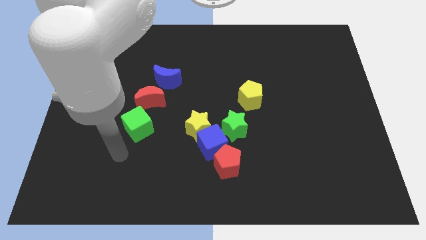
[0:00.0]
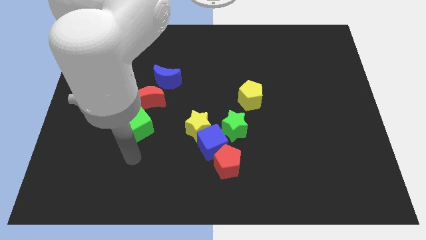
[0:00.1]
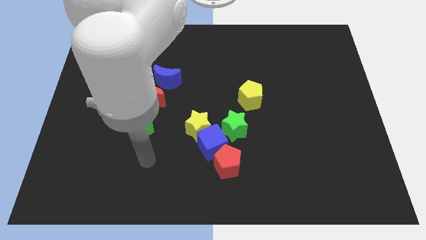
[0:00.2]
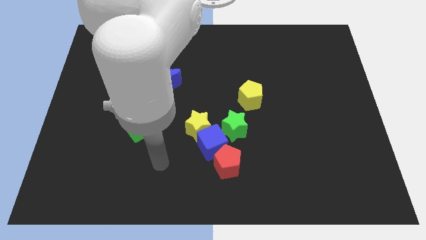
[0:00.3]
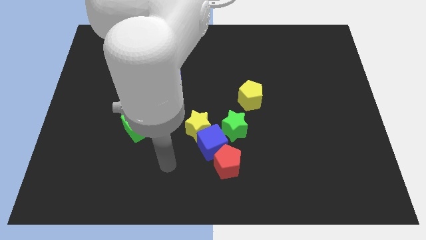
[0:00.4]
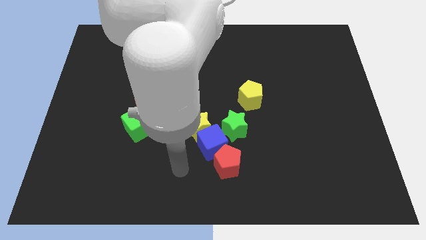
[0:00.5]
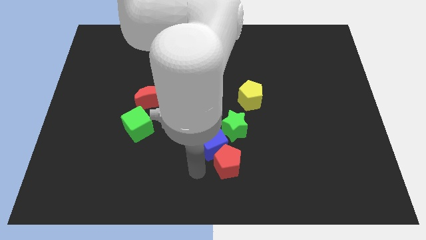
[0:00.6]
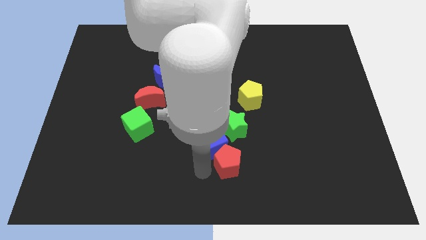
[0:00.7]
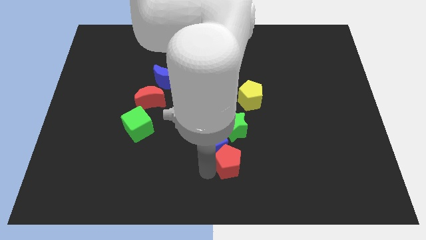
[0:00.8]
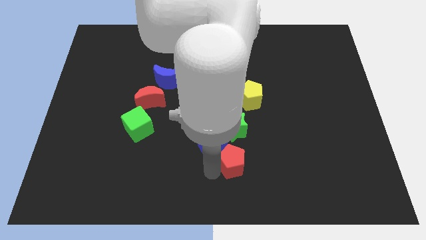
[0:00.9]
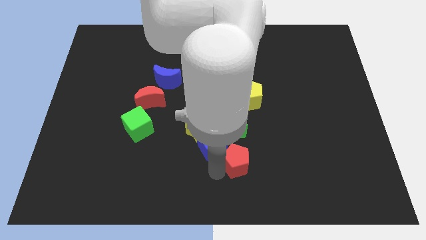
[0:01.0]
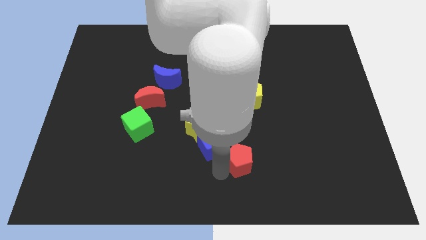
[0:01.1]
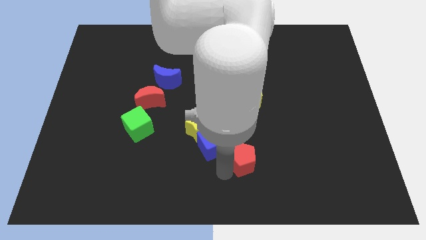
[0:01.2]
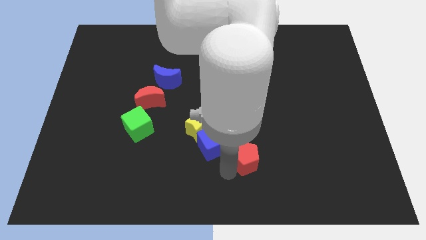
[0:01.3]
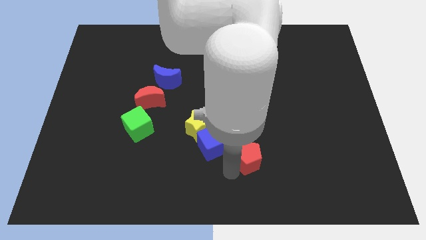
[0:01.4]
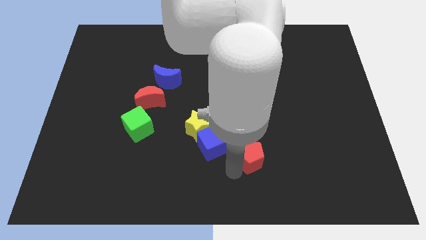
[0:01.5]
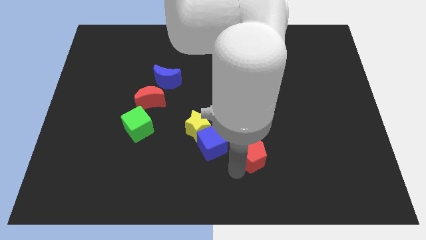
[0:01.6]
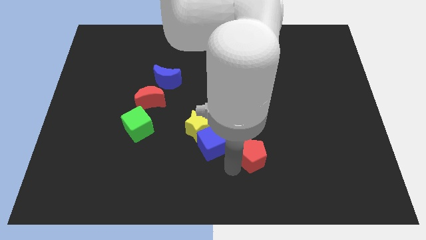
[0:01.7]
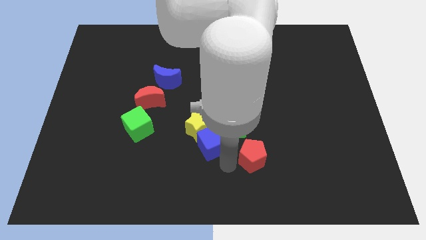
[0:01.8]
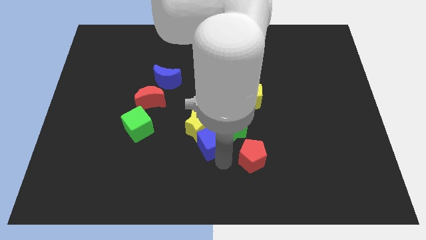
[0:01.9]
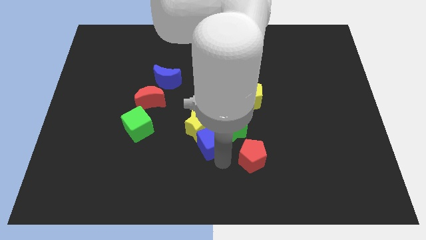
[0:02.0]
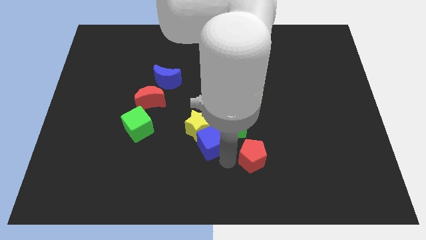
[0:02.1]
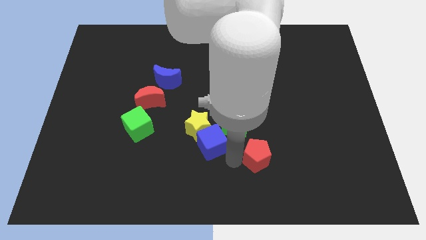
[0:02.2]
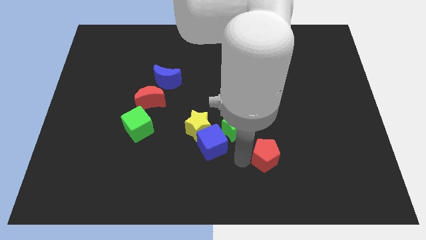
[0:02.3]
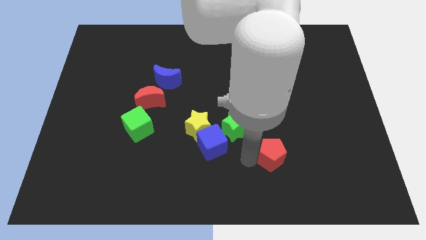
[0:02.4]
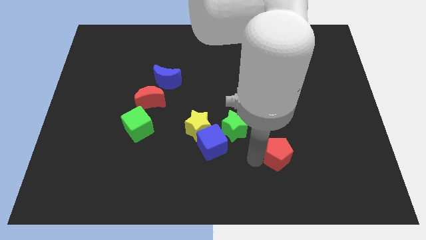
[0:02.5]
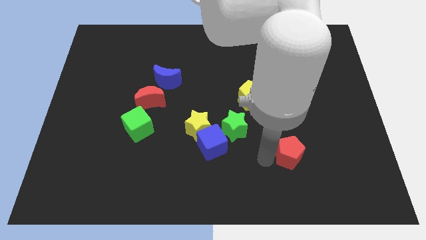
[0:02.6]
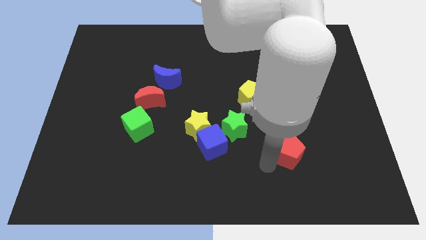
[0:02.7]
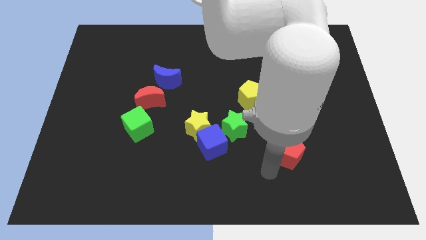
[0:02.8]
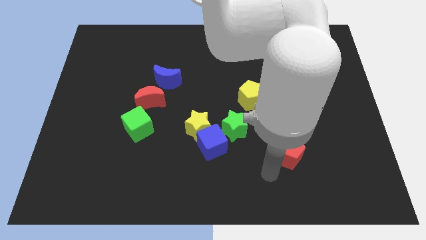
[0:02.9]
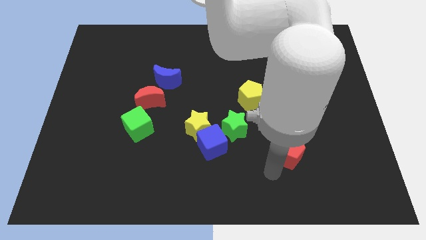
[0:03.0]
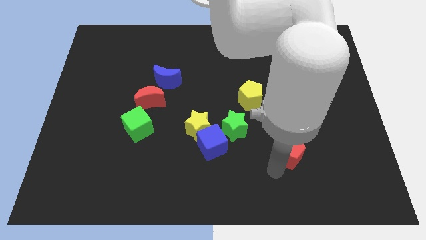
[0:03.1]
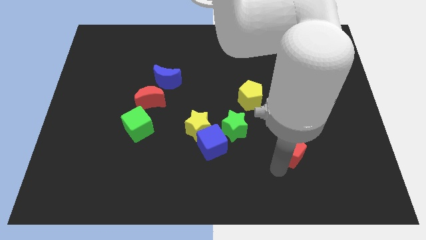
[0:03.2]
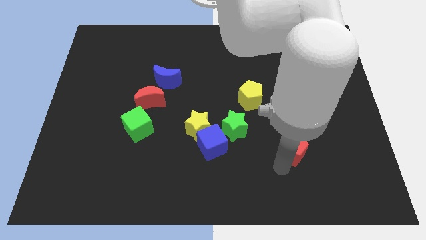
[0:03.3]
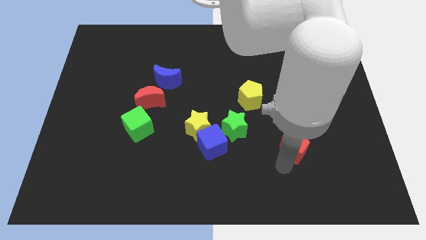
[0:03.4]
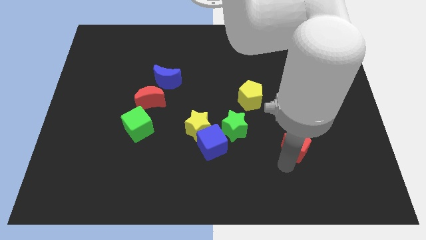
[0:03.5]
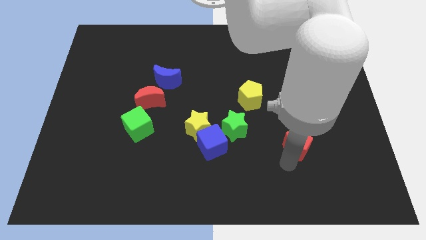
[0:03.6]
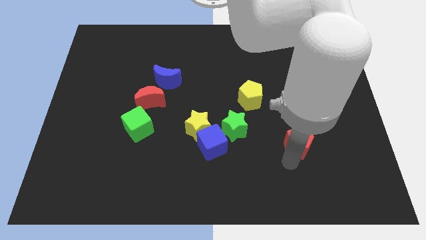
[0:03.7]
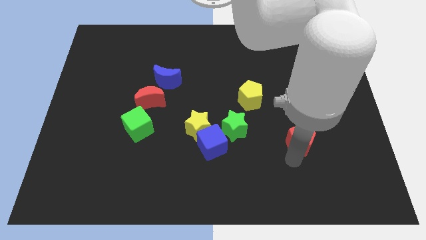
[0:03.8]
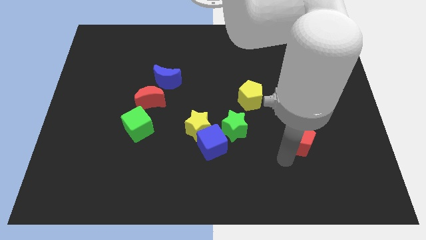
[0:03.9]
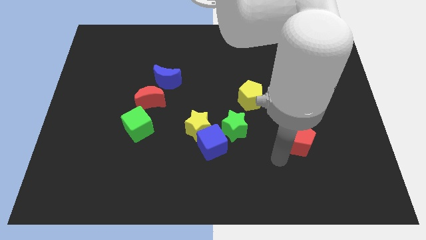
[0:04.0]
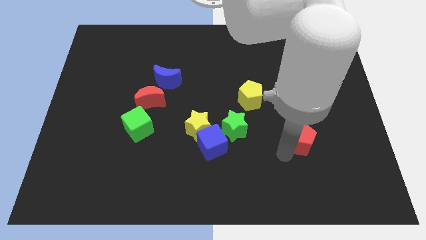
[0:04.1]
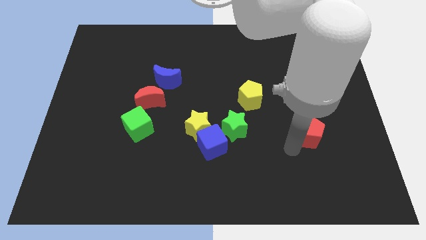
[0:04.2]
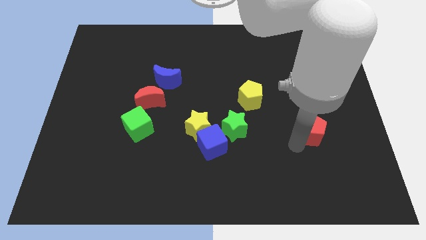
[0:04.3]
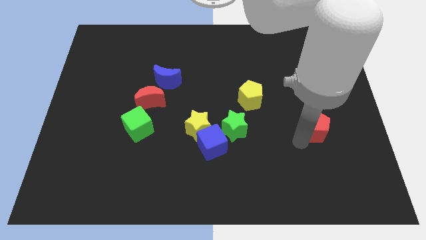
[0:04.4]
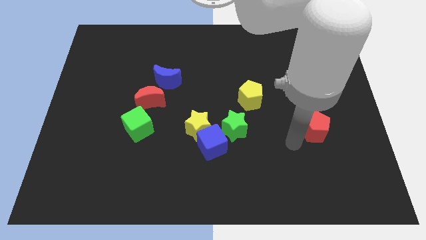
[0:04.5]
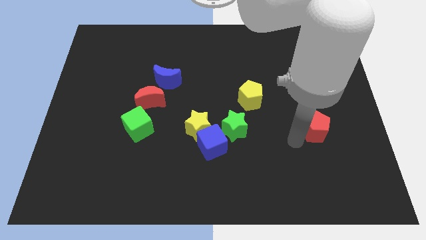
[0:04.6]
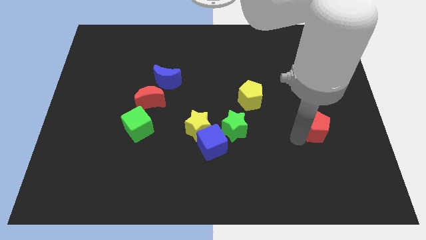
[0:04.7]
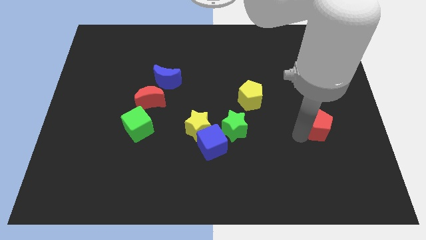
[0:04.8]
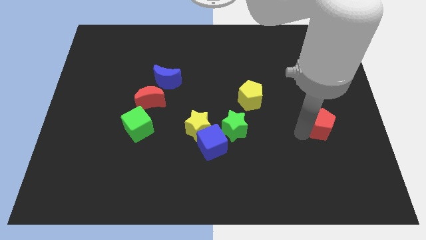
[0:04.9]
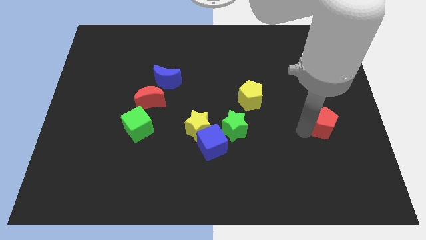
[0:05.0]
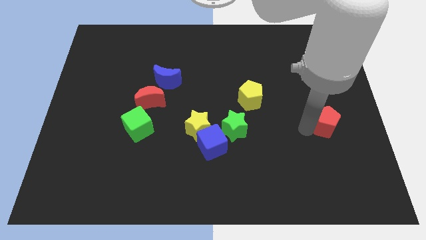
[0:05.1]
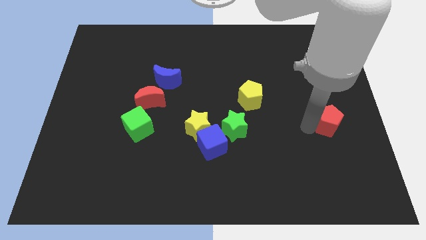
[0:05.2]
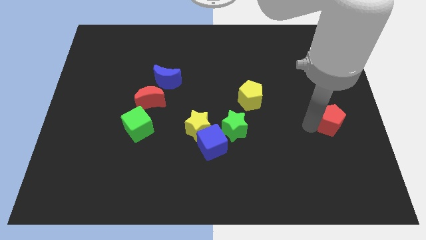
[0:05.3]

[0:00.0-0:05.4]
put the red pentagon to the right side of the board

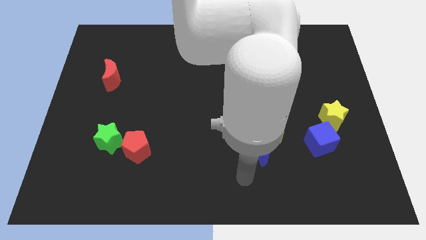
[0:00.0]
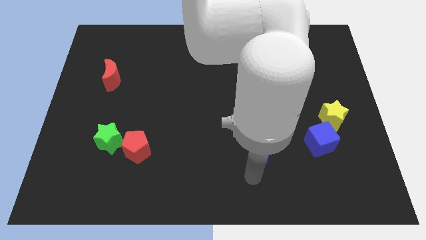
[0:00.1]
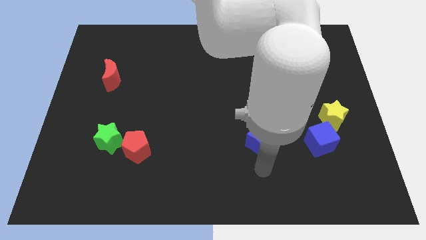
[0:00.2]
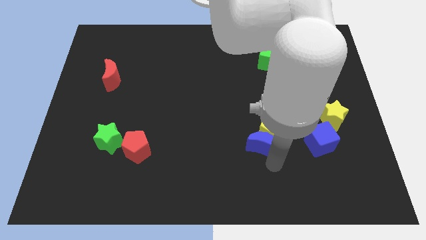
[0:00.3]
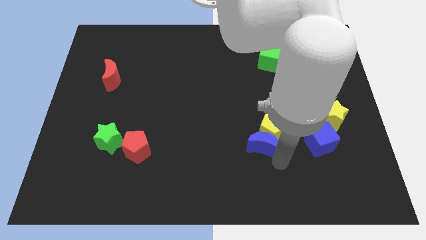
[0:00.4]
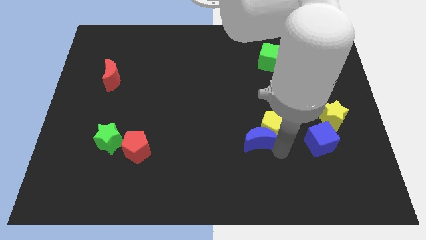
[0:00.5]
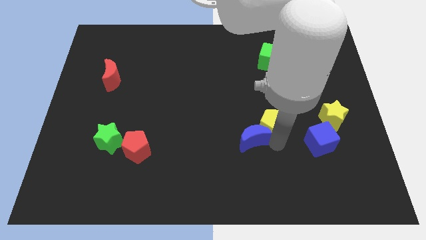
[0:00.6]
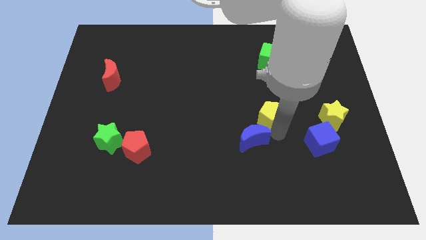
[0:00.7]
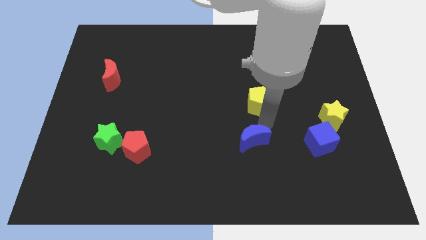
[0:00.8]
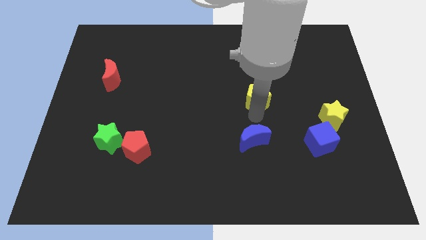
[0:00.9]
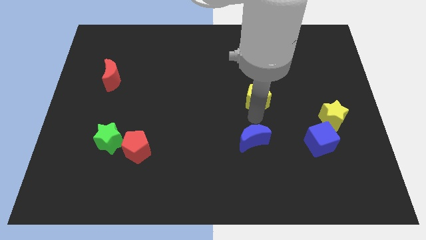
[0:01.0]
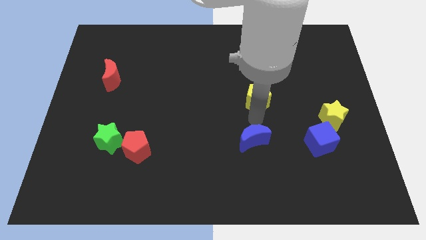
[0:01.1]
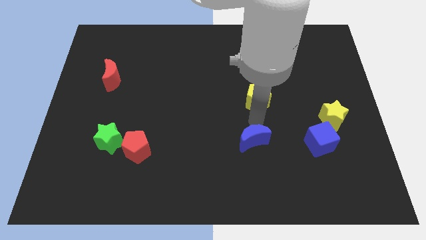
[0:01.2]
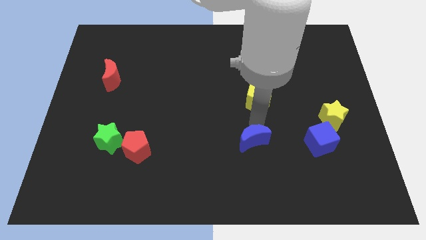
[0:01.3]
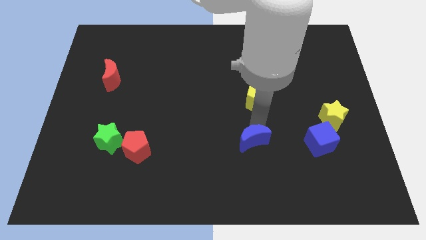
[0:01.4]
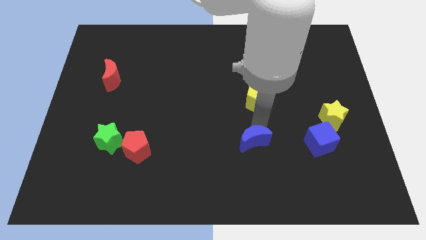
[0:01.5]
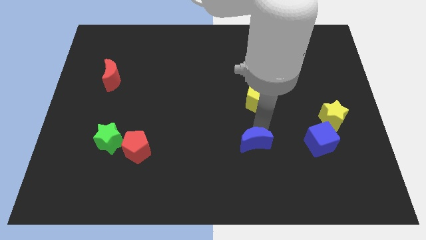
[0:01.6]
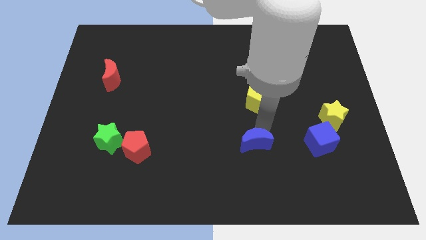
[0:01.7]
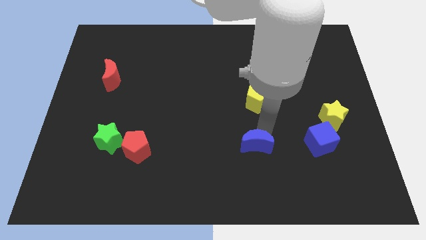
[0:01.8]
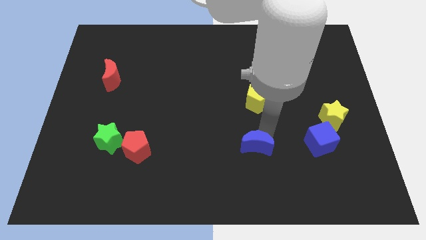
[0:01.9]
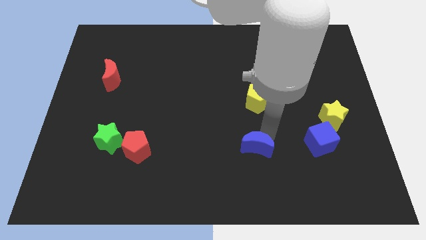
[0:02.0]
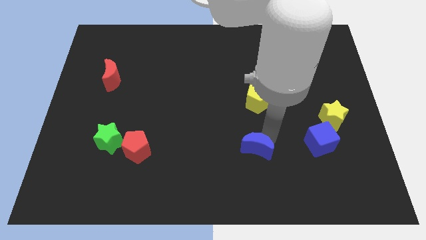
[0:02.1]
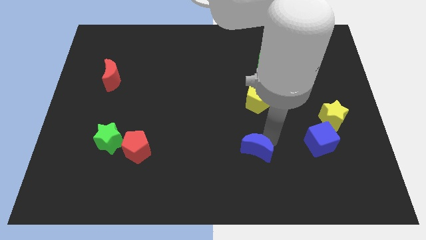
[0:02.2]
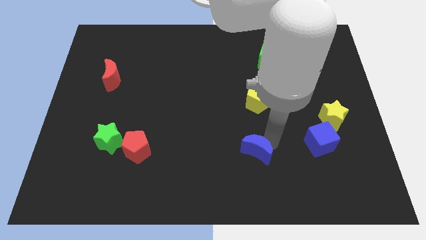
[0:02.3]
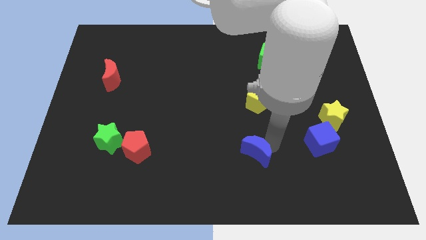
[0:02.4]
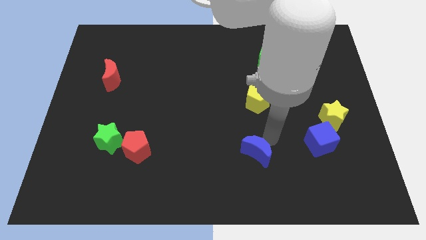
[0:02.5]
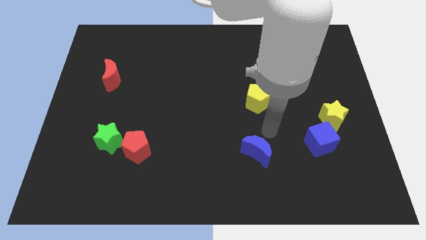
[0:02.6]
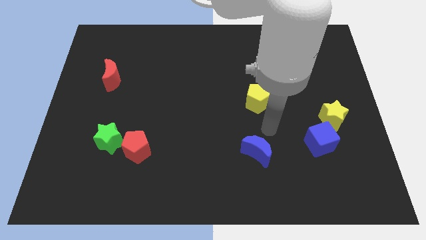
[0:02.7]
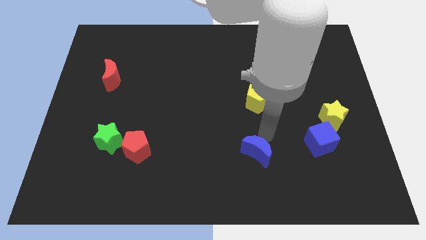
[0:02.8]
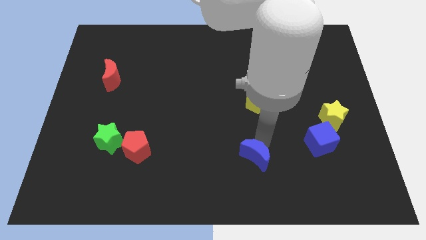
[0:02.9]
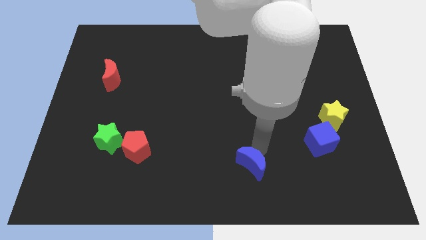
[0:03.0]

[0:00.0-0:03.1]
put the blue moon to the bottom side
